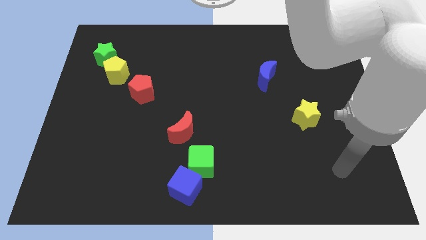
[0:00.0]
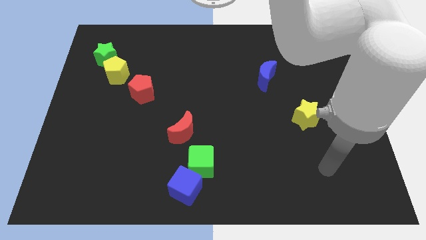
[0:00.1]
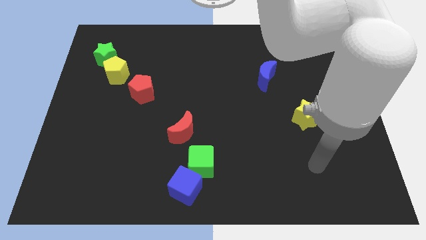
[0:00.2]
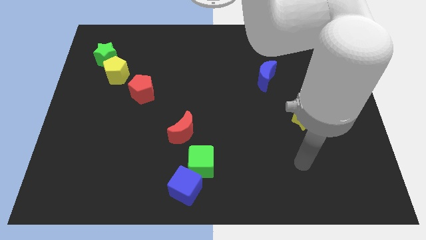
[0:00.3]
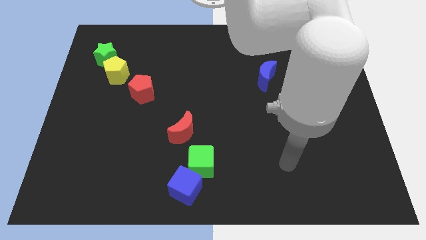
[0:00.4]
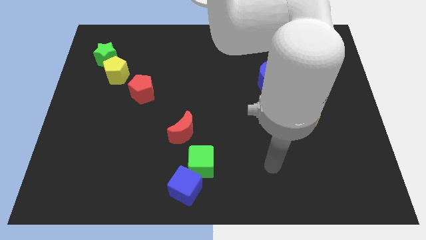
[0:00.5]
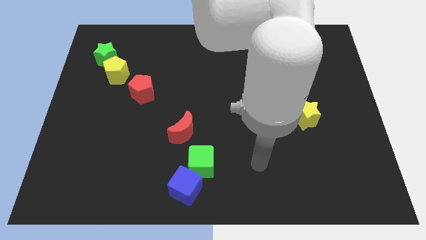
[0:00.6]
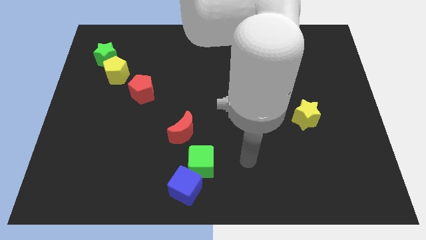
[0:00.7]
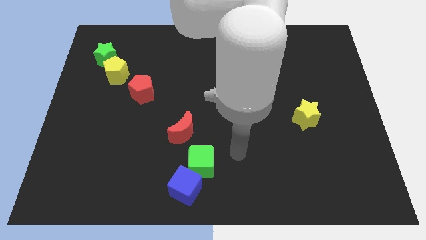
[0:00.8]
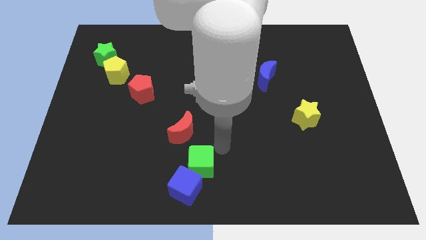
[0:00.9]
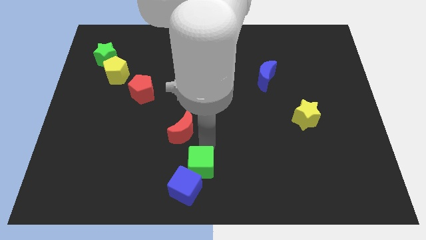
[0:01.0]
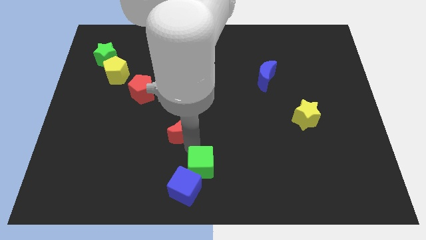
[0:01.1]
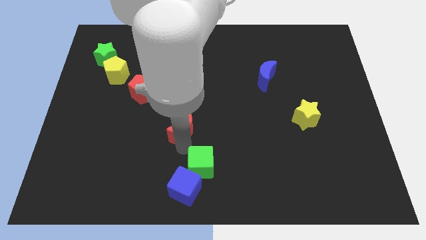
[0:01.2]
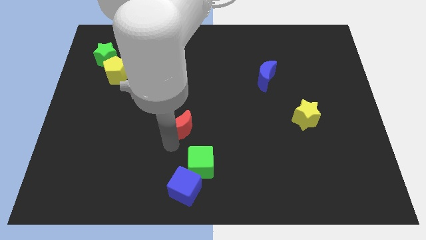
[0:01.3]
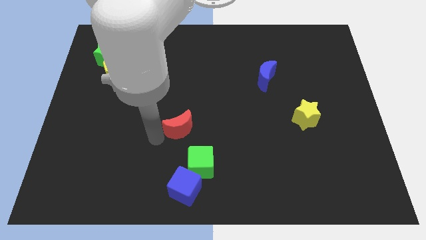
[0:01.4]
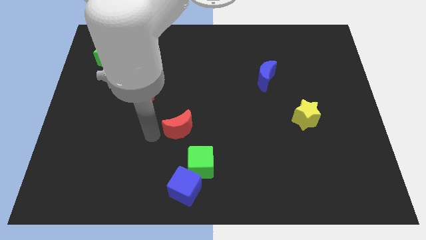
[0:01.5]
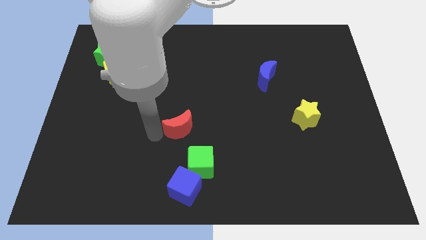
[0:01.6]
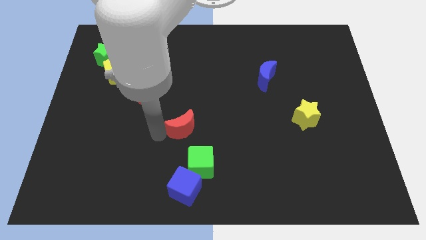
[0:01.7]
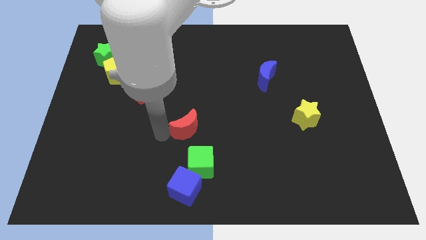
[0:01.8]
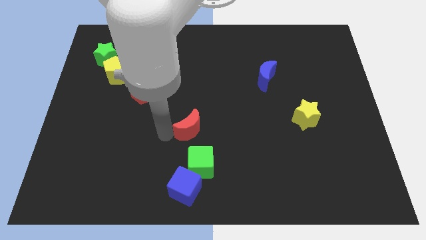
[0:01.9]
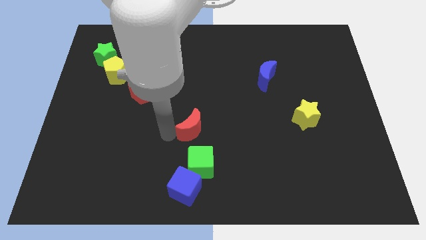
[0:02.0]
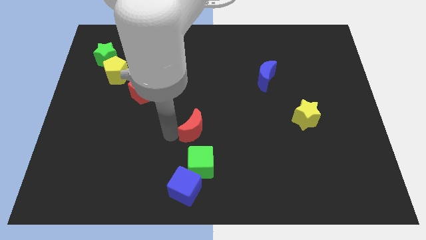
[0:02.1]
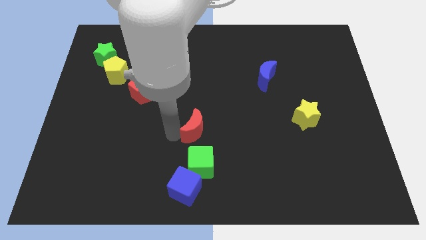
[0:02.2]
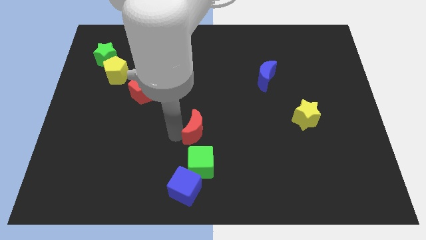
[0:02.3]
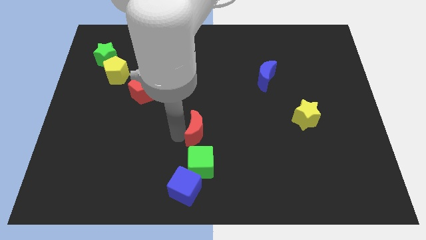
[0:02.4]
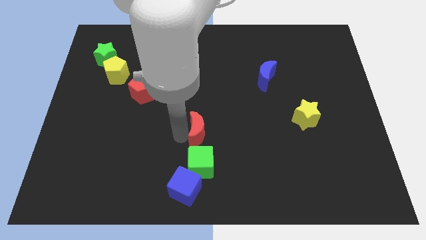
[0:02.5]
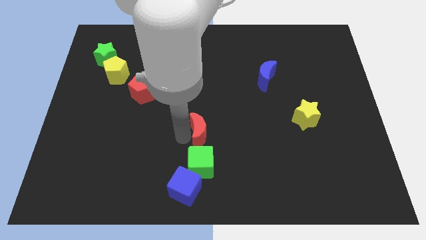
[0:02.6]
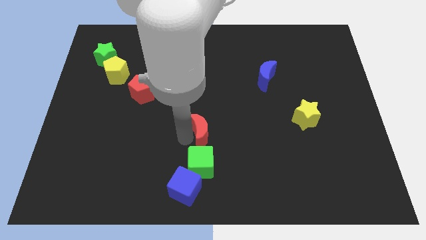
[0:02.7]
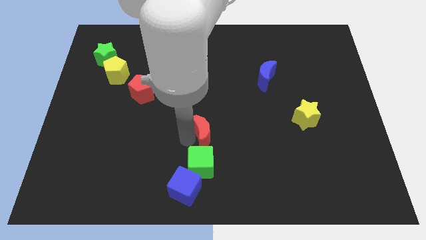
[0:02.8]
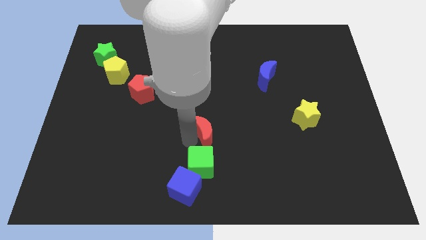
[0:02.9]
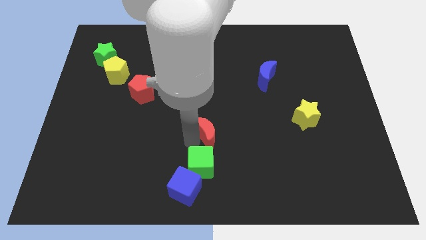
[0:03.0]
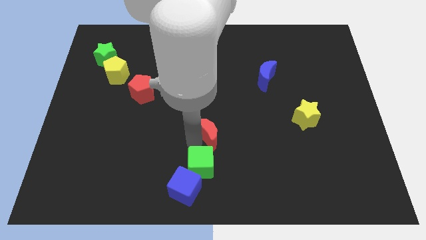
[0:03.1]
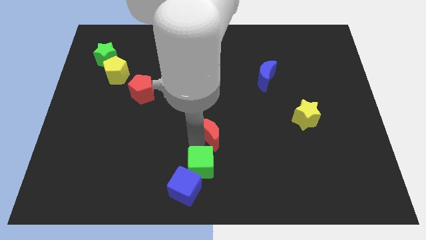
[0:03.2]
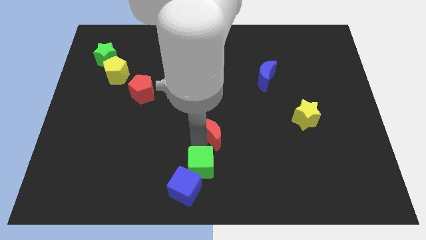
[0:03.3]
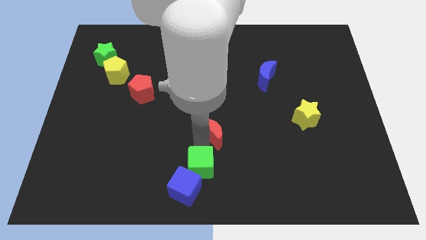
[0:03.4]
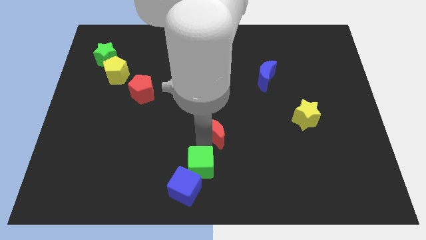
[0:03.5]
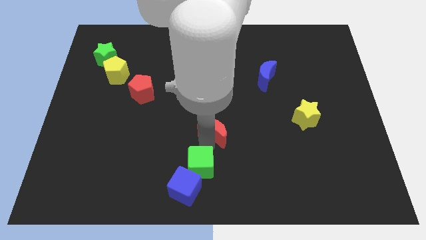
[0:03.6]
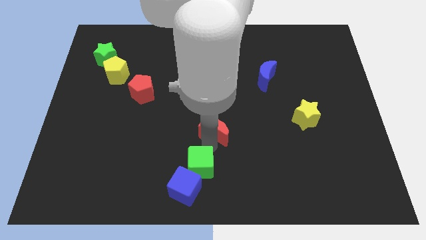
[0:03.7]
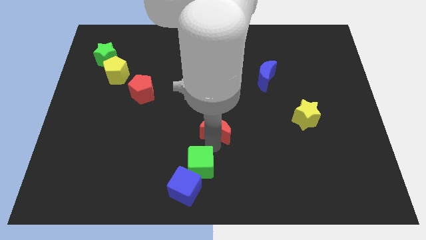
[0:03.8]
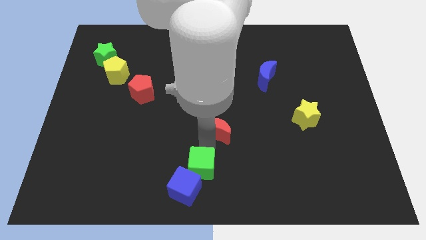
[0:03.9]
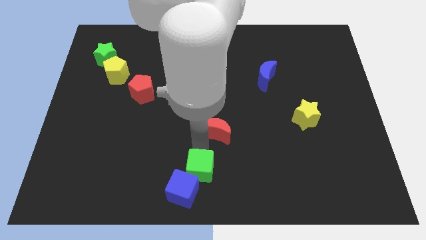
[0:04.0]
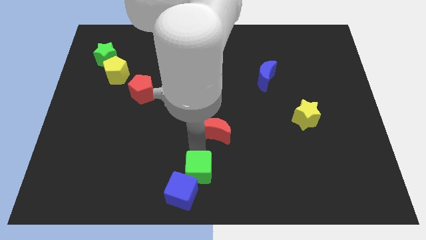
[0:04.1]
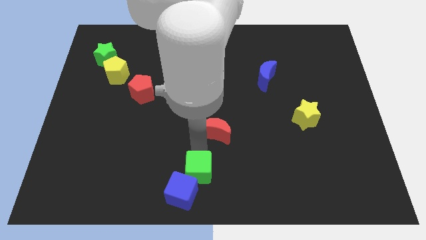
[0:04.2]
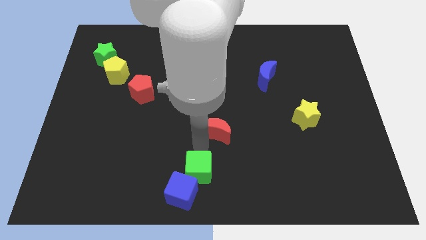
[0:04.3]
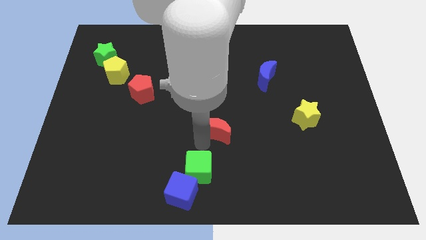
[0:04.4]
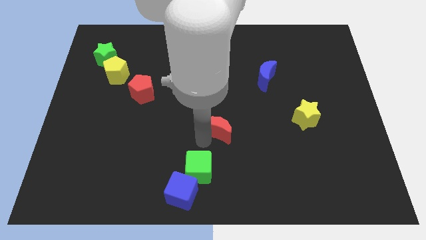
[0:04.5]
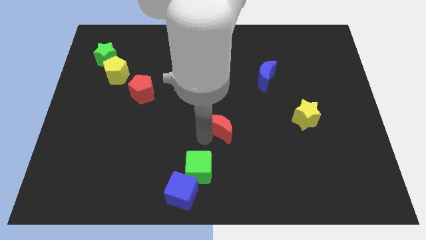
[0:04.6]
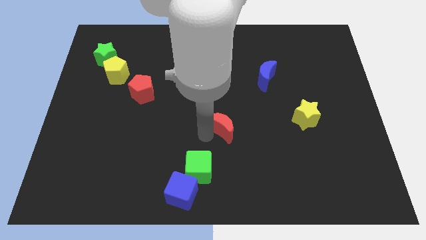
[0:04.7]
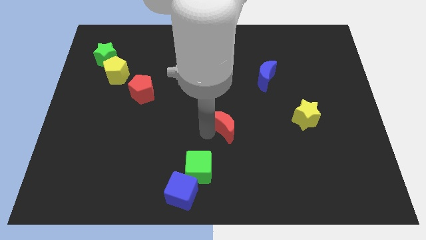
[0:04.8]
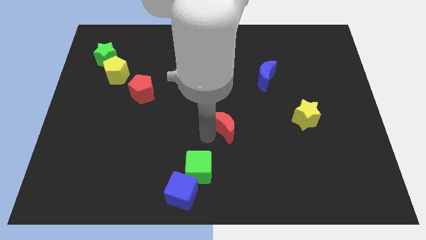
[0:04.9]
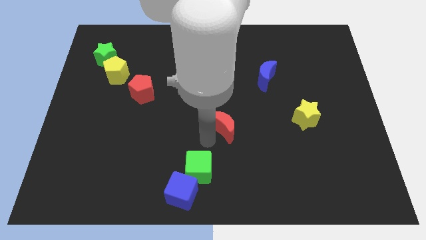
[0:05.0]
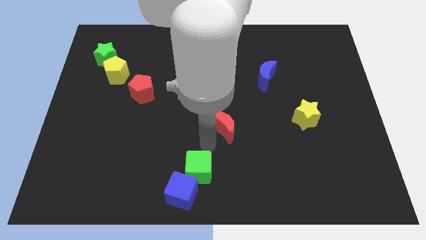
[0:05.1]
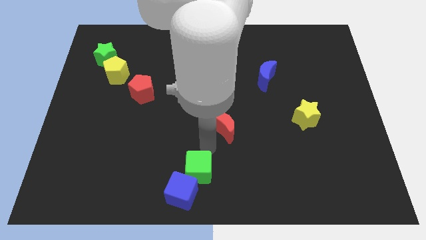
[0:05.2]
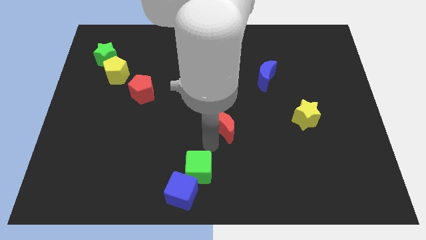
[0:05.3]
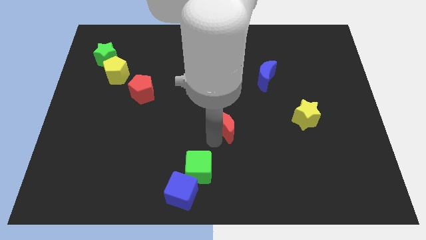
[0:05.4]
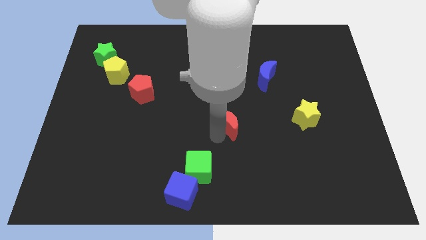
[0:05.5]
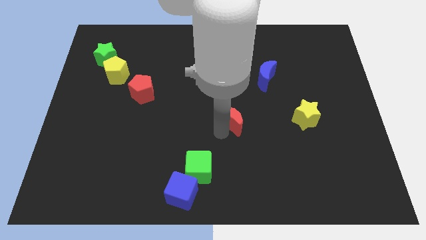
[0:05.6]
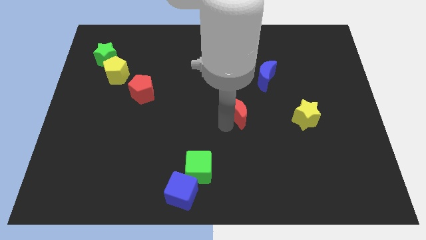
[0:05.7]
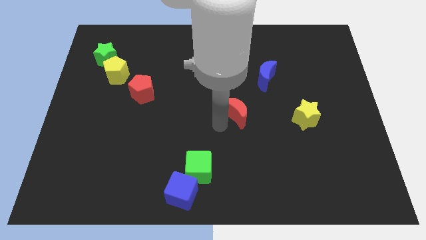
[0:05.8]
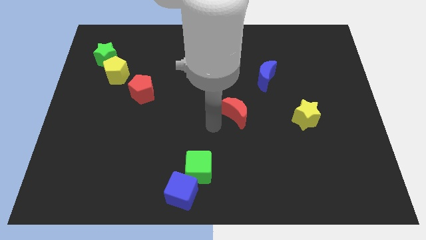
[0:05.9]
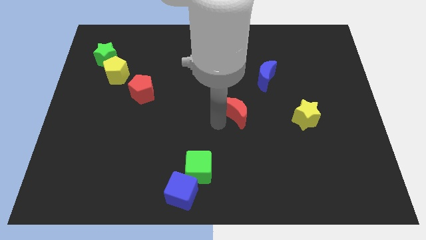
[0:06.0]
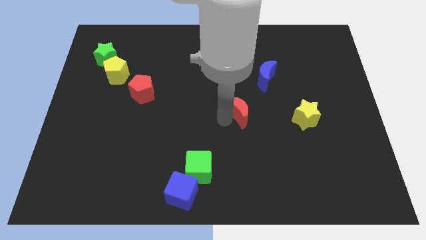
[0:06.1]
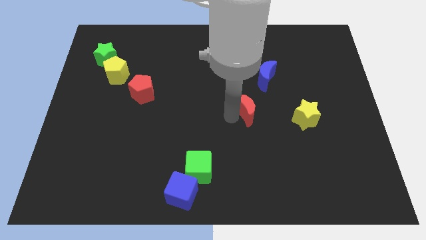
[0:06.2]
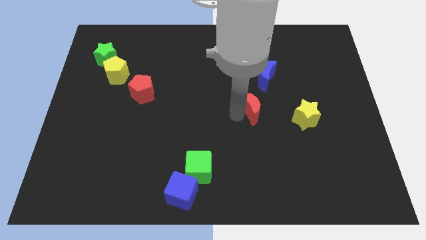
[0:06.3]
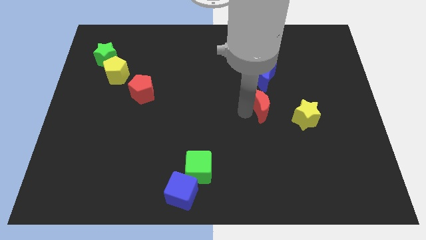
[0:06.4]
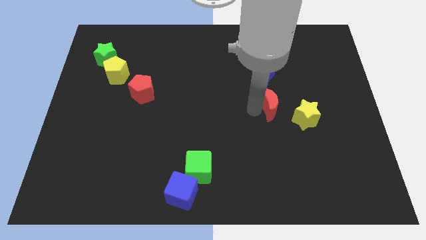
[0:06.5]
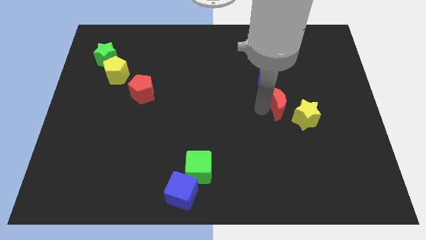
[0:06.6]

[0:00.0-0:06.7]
push the red moon diagonally down and to the right of the blue moon
